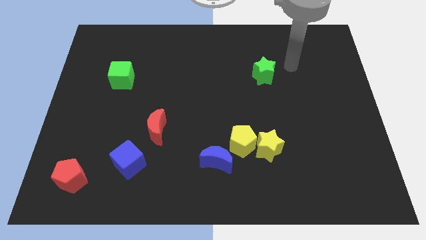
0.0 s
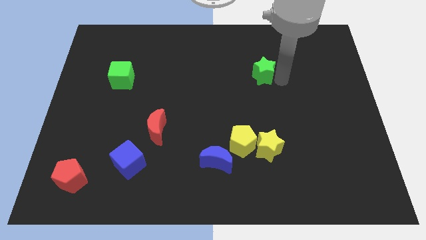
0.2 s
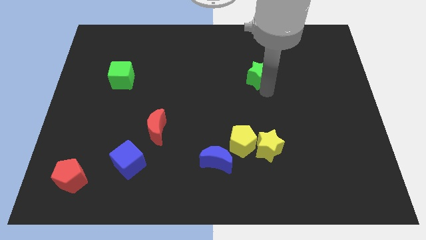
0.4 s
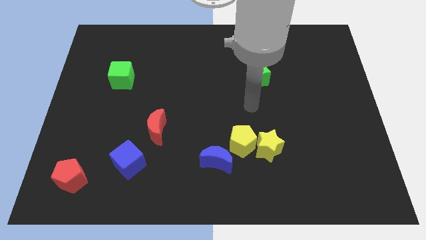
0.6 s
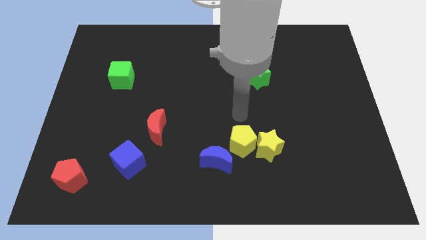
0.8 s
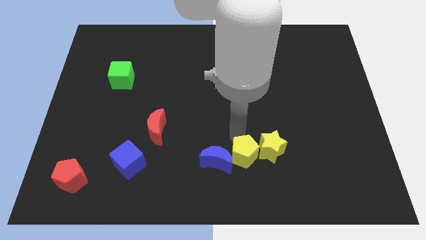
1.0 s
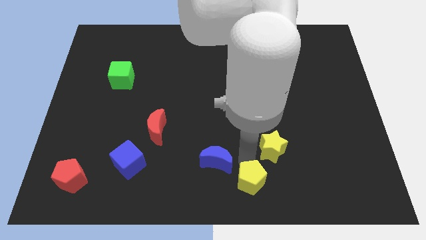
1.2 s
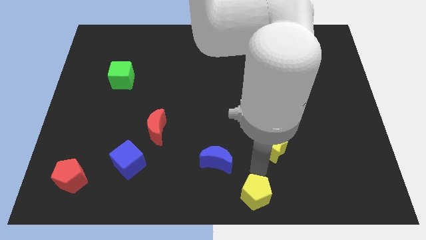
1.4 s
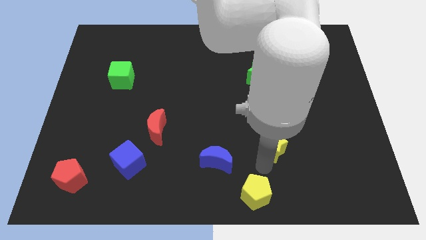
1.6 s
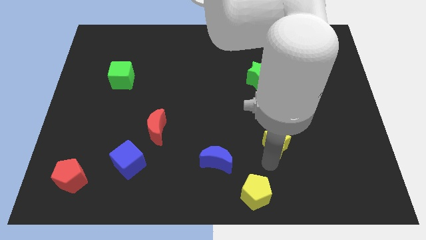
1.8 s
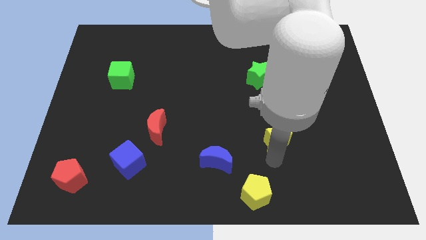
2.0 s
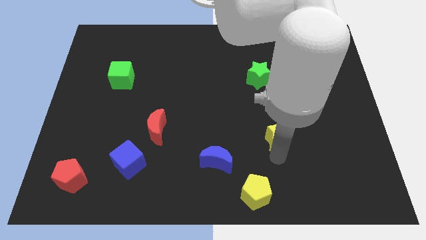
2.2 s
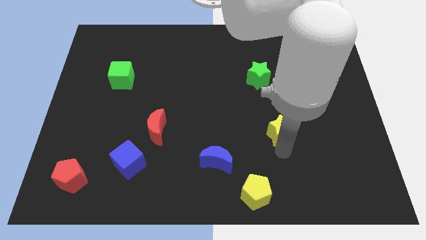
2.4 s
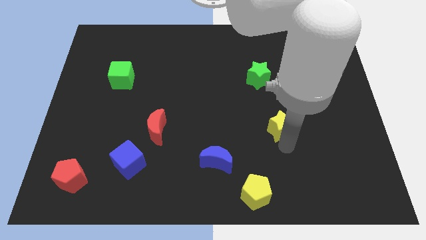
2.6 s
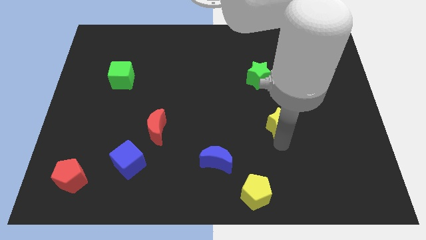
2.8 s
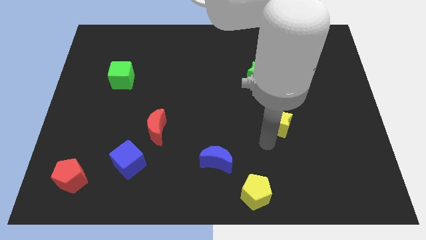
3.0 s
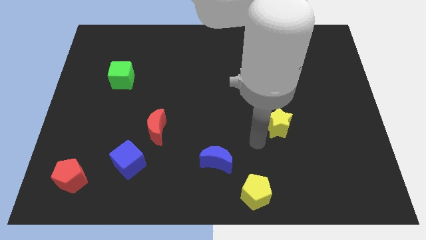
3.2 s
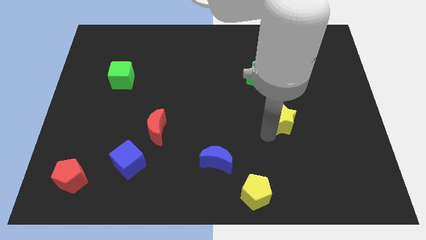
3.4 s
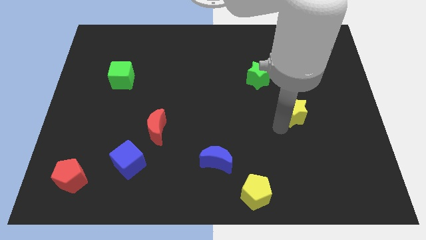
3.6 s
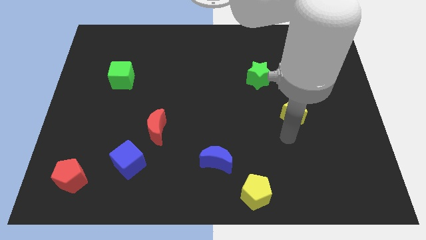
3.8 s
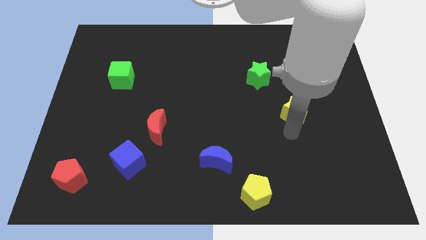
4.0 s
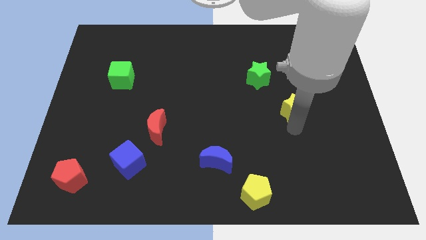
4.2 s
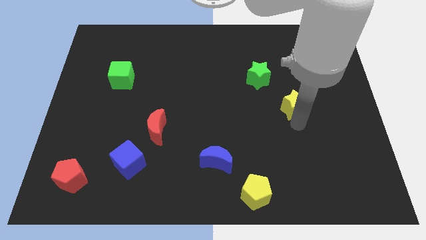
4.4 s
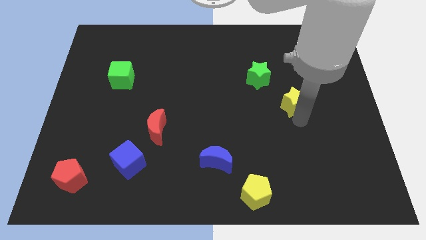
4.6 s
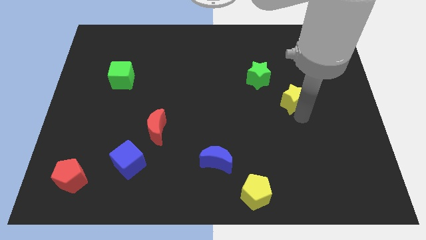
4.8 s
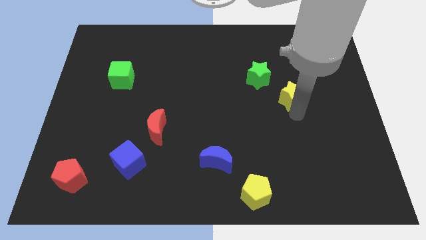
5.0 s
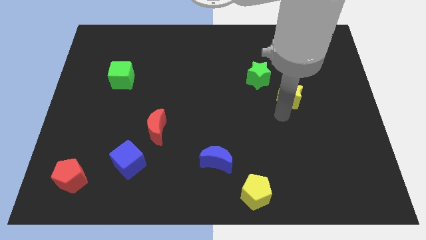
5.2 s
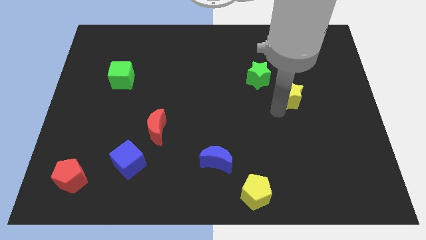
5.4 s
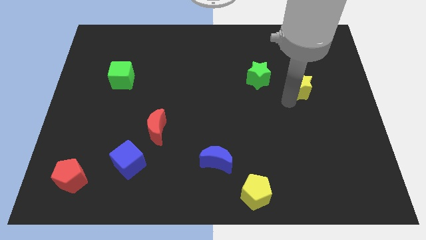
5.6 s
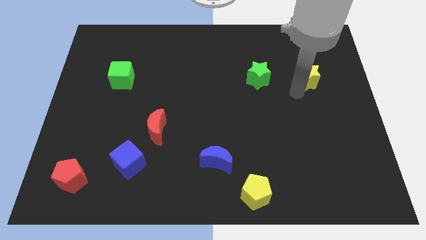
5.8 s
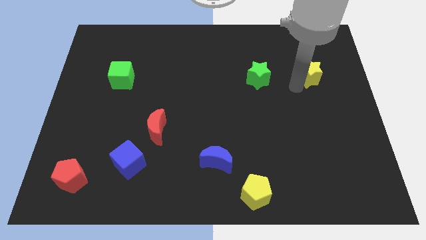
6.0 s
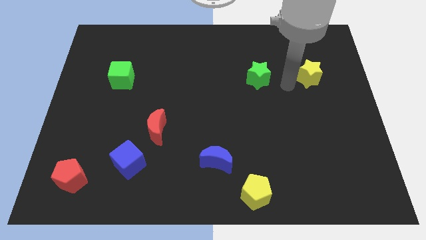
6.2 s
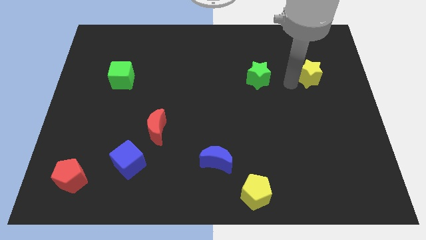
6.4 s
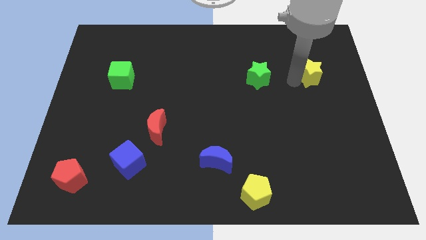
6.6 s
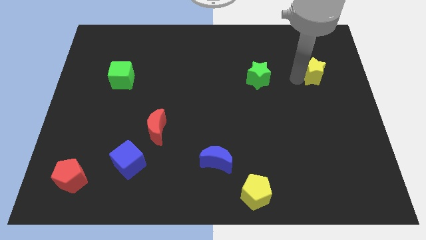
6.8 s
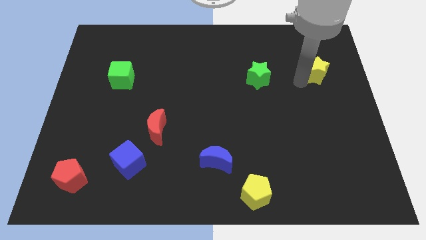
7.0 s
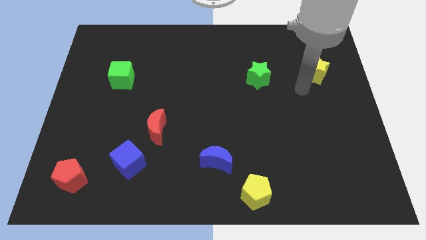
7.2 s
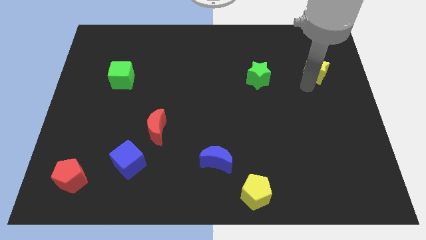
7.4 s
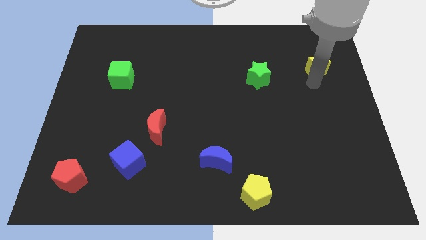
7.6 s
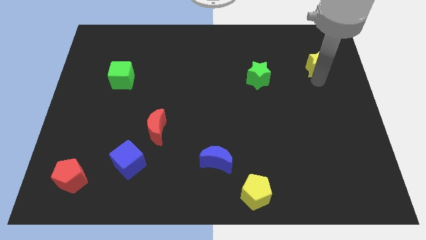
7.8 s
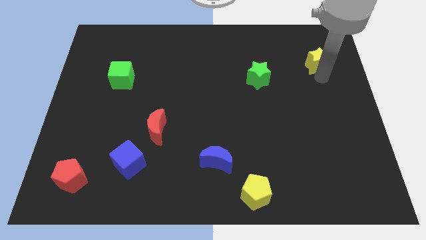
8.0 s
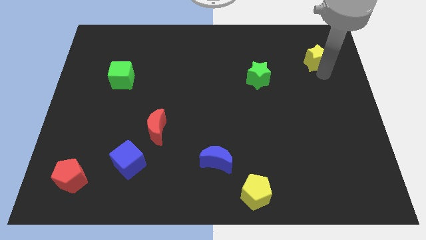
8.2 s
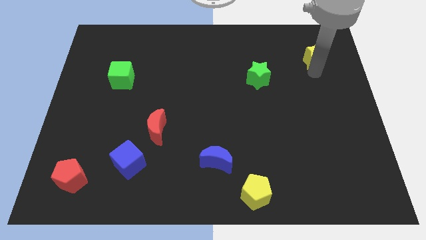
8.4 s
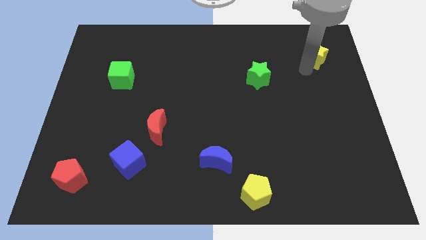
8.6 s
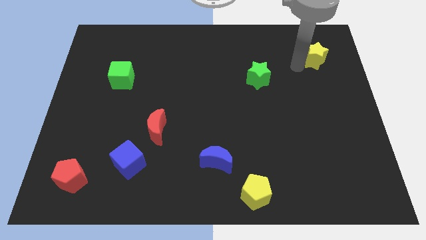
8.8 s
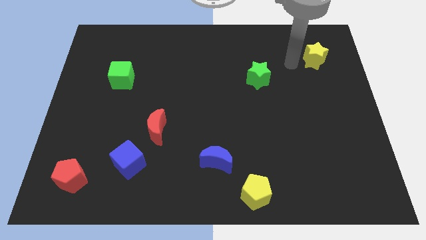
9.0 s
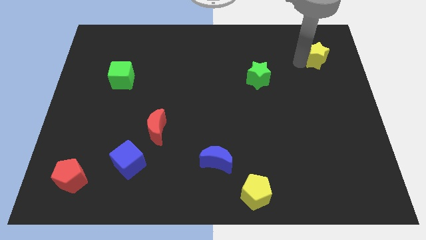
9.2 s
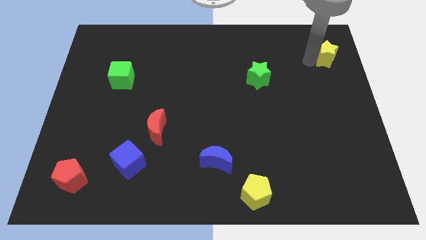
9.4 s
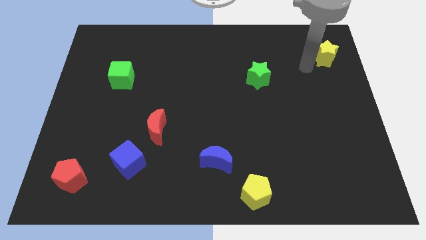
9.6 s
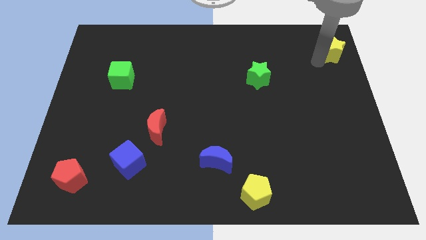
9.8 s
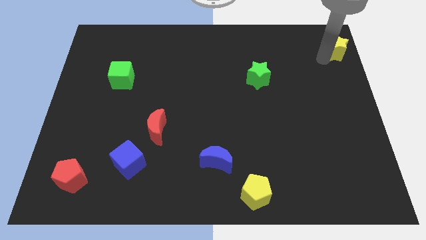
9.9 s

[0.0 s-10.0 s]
push the yellow star to the top right
